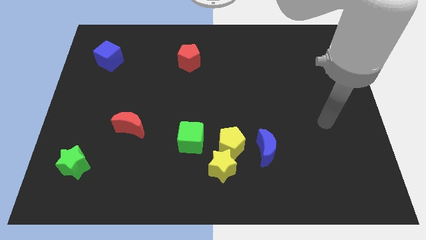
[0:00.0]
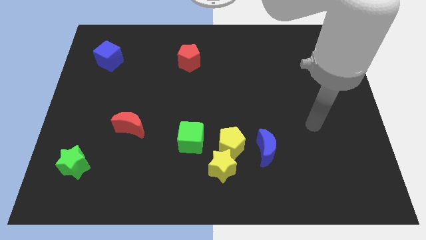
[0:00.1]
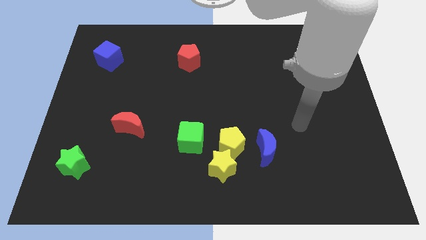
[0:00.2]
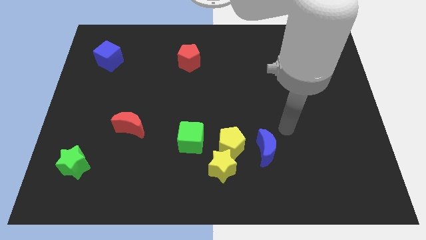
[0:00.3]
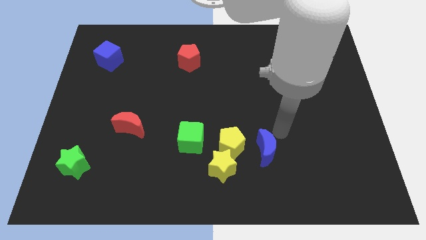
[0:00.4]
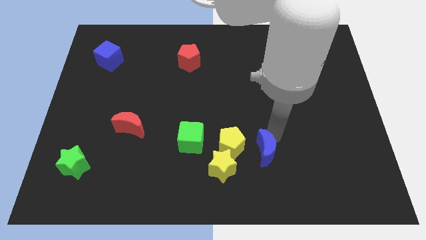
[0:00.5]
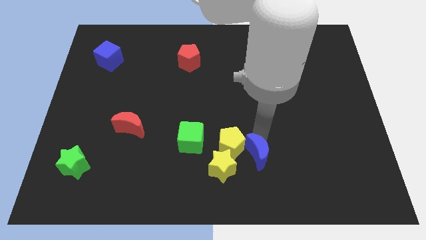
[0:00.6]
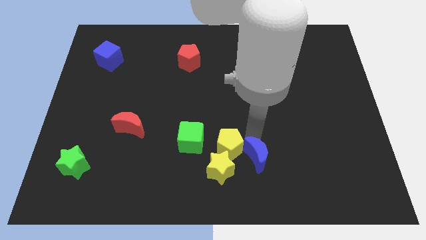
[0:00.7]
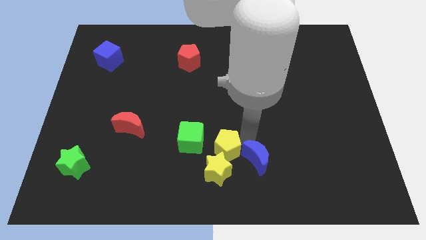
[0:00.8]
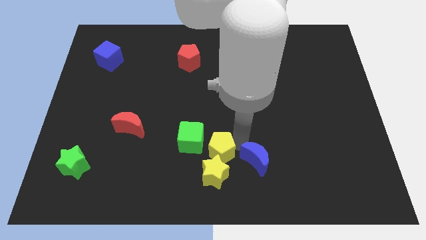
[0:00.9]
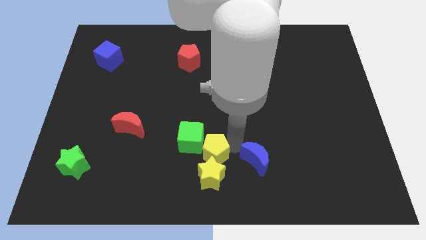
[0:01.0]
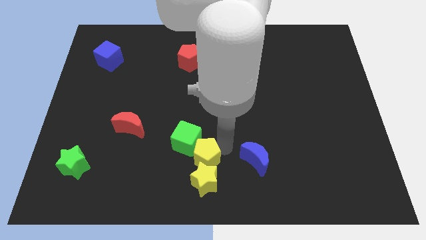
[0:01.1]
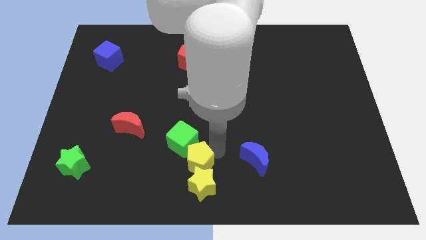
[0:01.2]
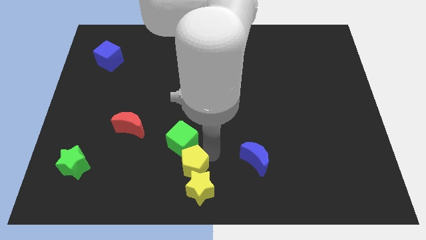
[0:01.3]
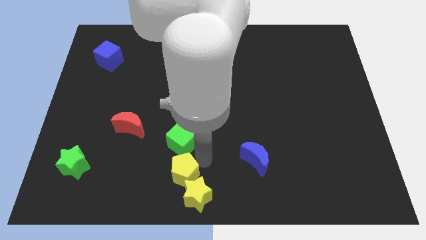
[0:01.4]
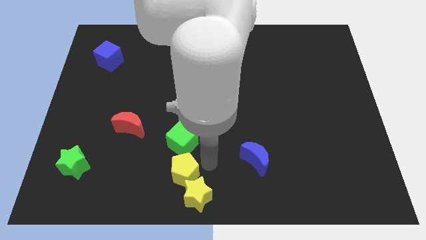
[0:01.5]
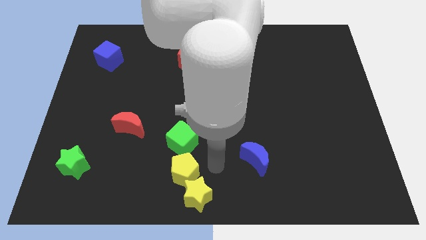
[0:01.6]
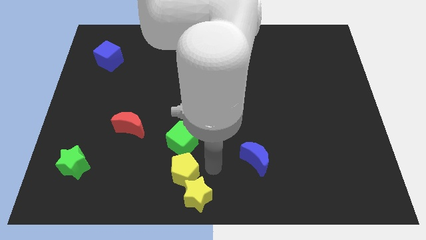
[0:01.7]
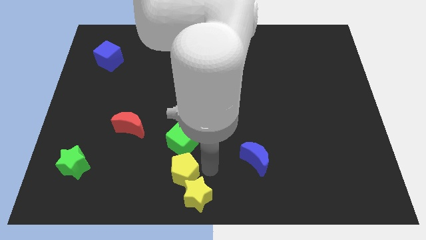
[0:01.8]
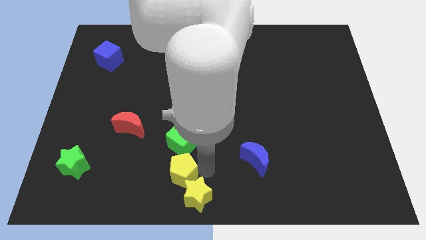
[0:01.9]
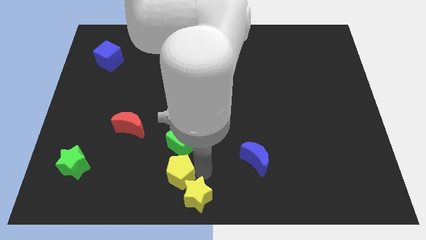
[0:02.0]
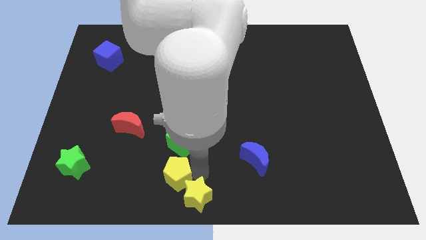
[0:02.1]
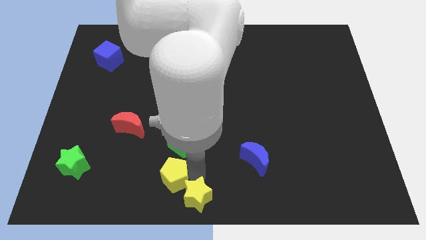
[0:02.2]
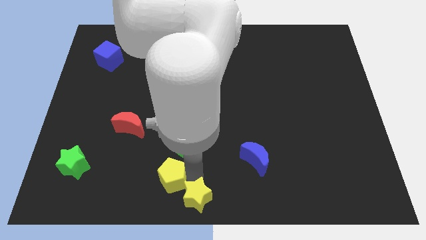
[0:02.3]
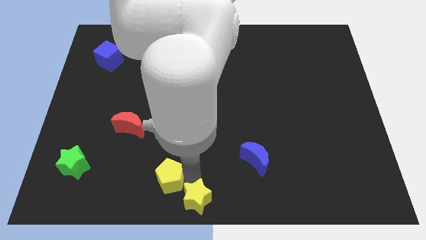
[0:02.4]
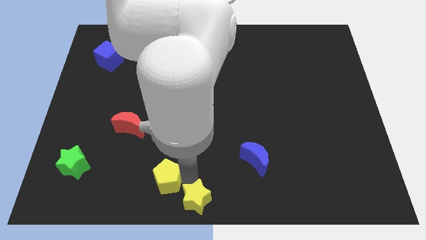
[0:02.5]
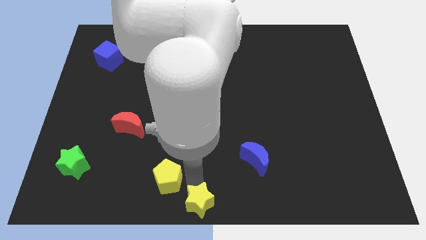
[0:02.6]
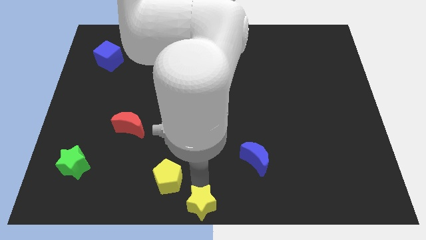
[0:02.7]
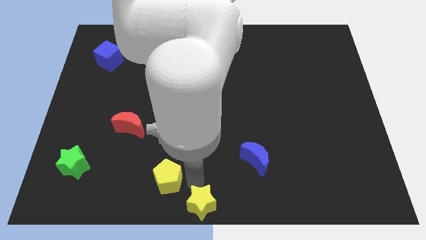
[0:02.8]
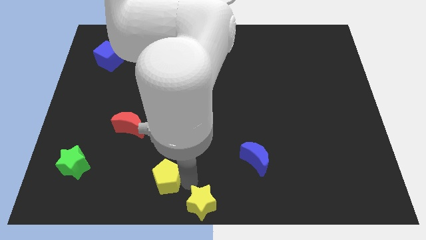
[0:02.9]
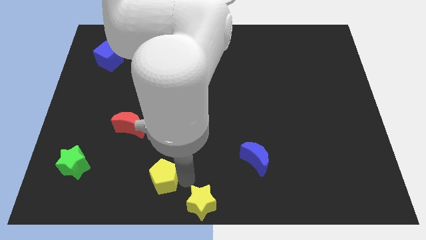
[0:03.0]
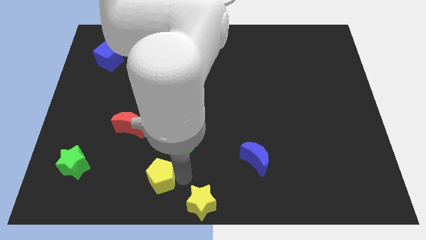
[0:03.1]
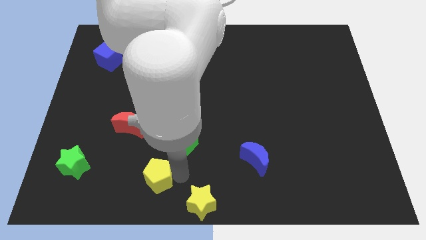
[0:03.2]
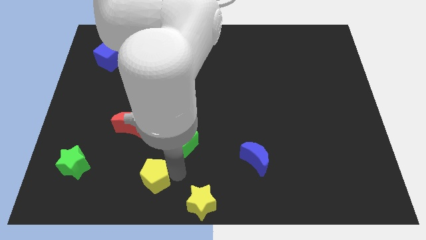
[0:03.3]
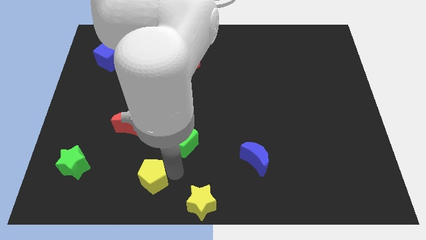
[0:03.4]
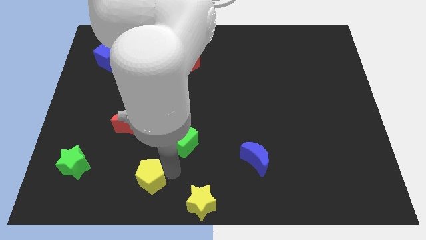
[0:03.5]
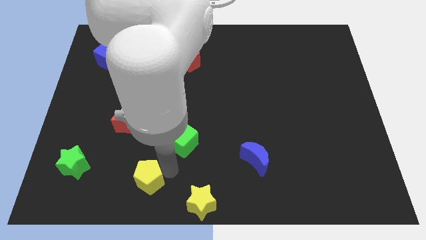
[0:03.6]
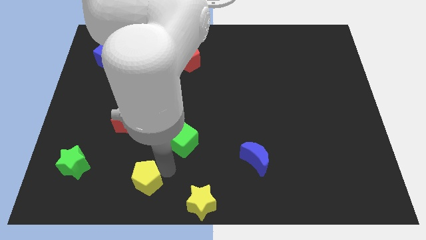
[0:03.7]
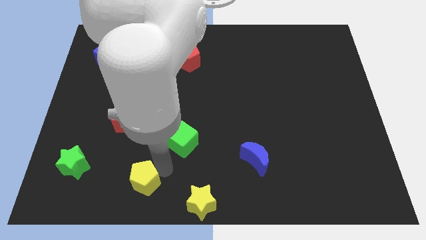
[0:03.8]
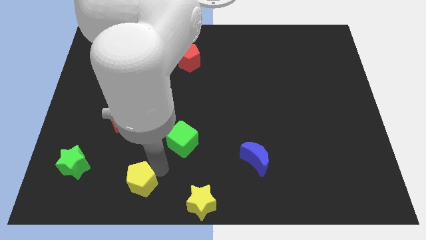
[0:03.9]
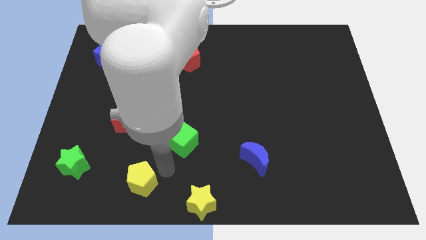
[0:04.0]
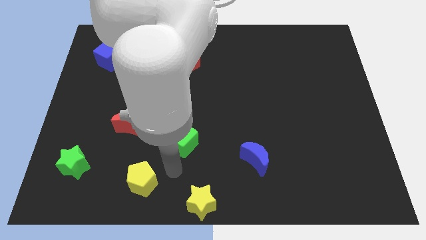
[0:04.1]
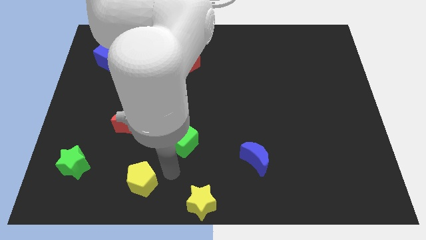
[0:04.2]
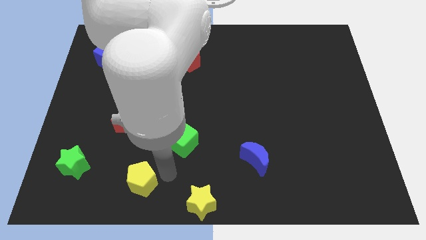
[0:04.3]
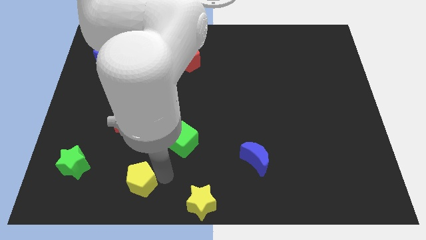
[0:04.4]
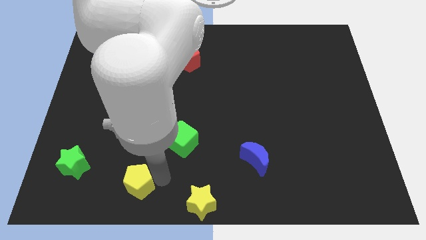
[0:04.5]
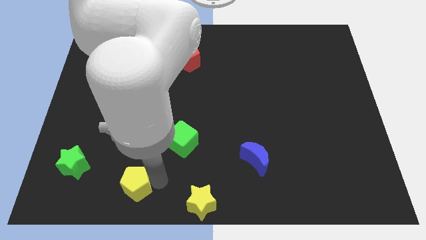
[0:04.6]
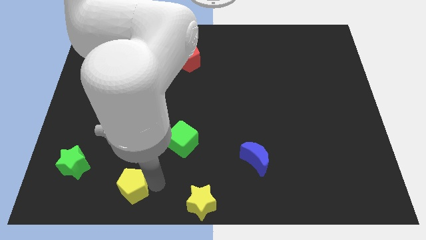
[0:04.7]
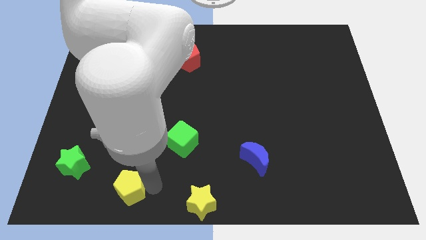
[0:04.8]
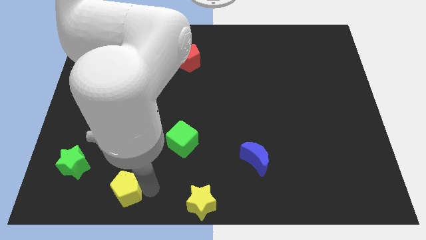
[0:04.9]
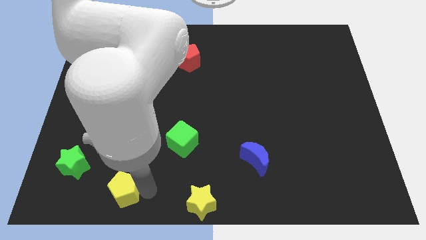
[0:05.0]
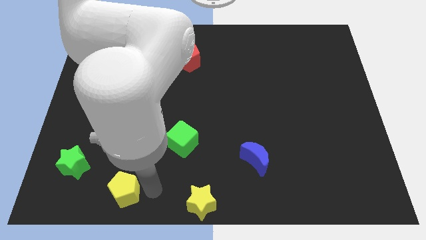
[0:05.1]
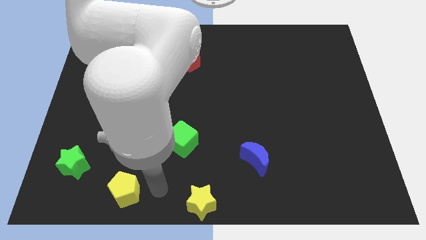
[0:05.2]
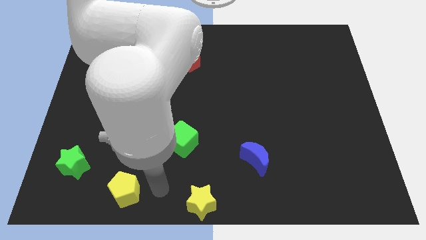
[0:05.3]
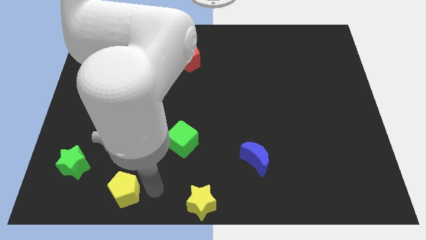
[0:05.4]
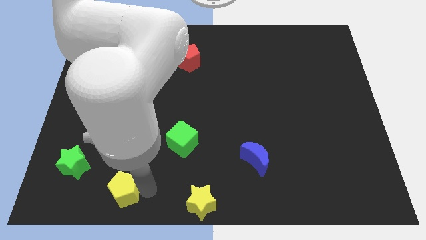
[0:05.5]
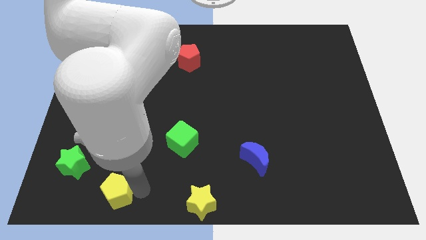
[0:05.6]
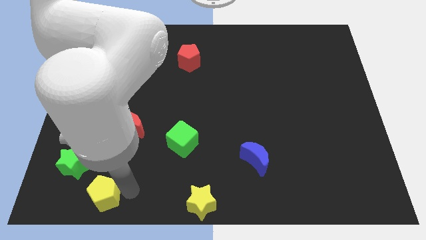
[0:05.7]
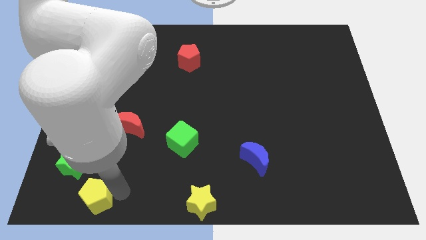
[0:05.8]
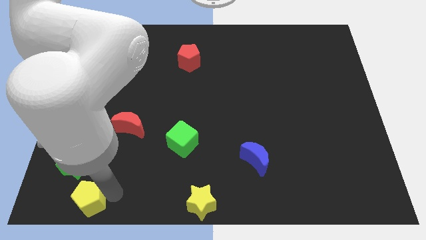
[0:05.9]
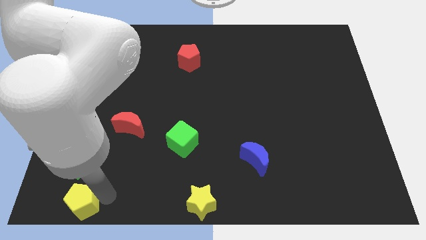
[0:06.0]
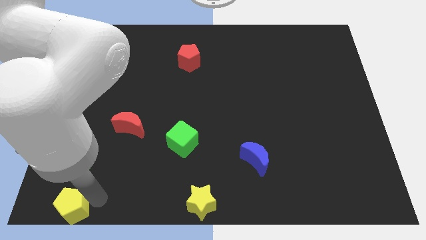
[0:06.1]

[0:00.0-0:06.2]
push the yellow pentagon to the bottom left

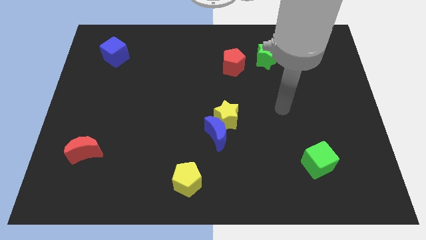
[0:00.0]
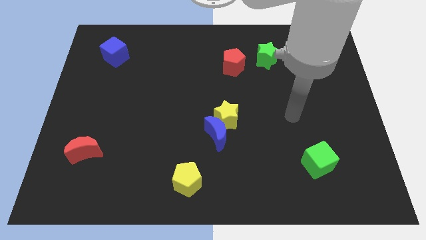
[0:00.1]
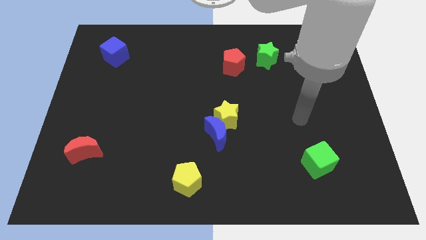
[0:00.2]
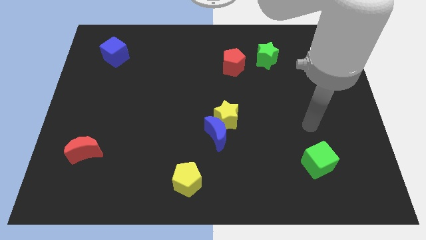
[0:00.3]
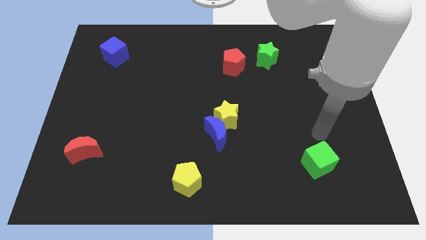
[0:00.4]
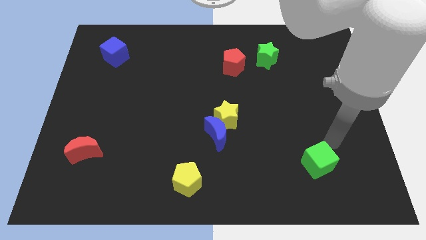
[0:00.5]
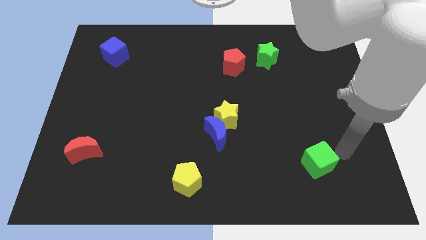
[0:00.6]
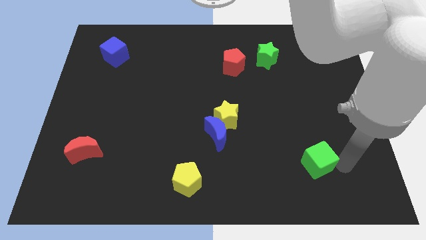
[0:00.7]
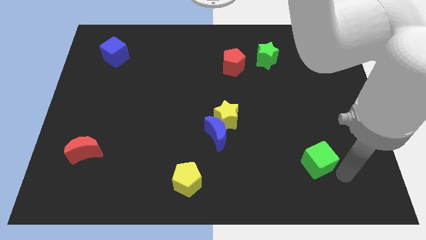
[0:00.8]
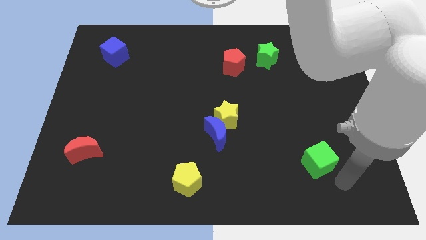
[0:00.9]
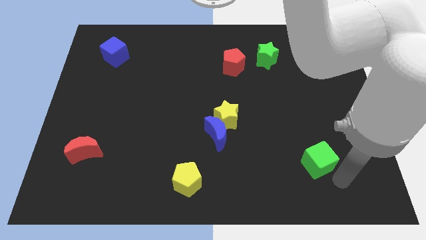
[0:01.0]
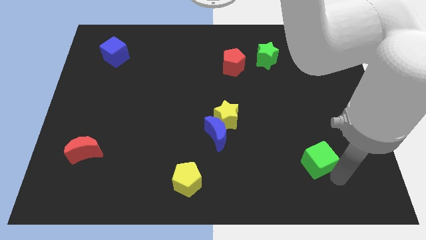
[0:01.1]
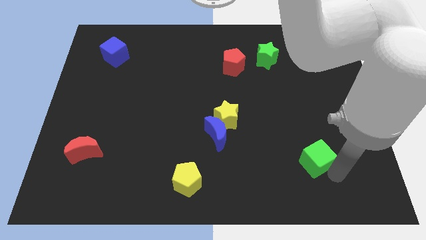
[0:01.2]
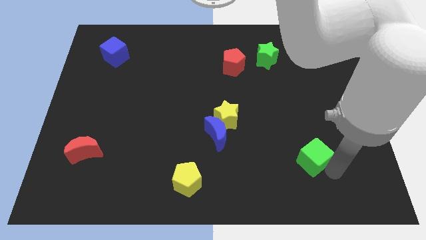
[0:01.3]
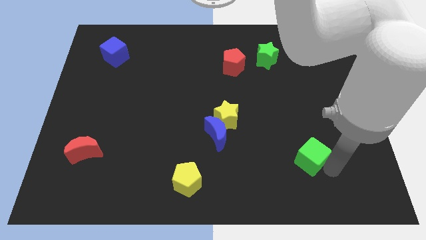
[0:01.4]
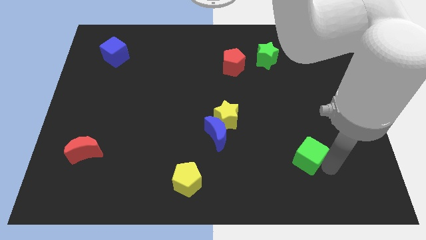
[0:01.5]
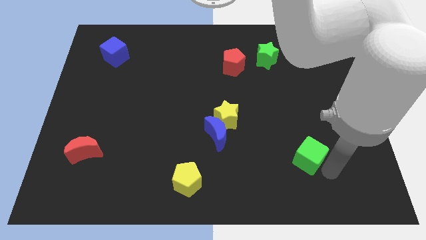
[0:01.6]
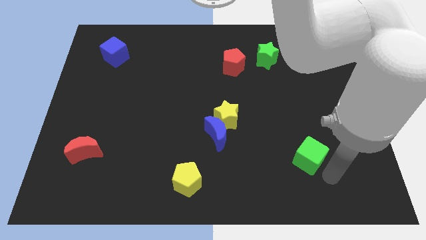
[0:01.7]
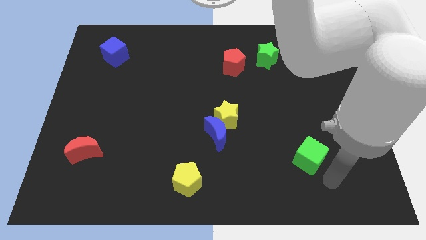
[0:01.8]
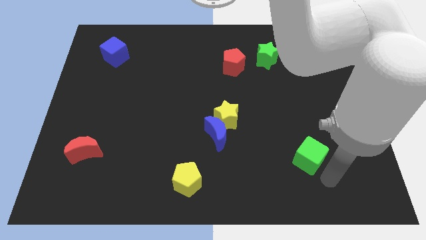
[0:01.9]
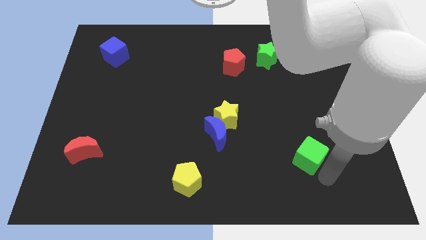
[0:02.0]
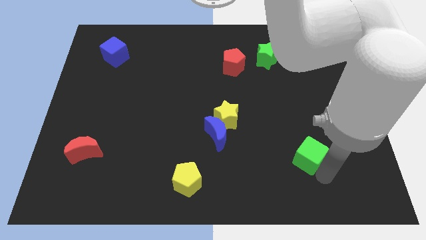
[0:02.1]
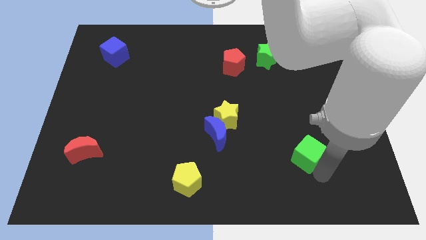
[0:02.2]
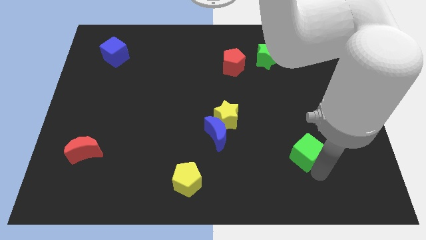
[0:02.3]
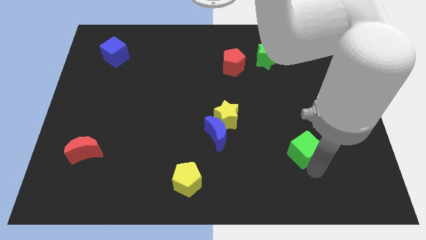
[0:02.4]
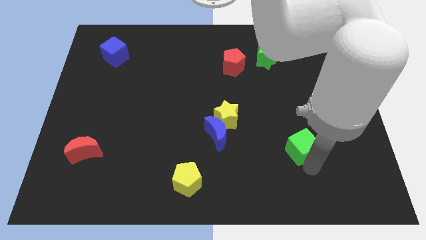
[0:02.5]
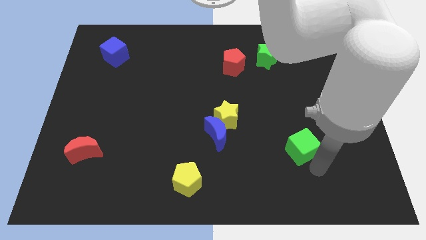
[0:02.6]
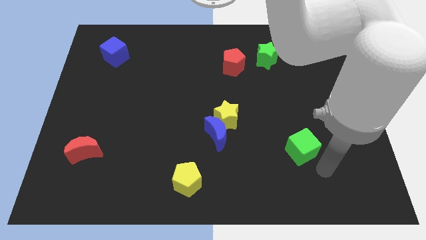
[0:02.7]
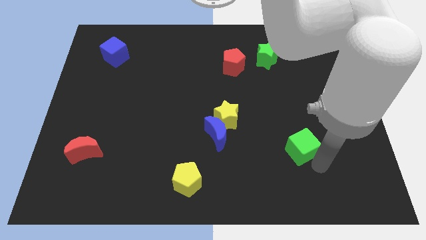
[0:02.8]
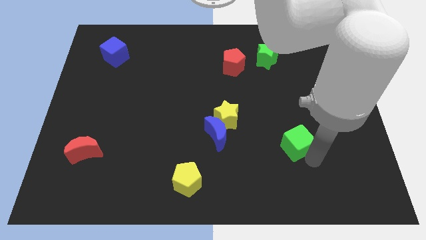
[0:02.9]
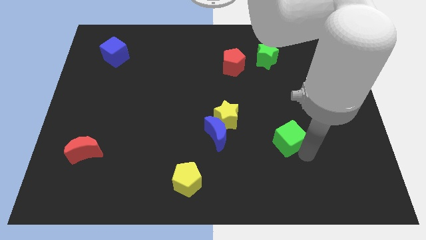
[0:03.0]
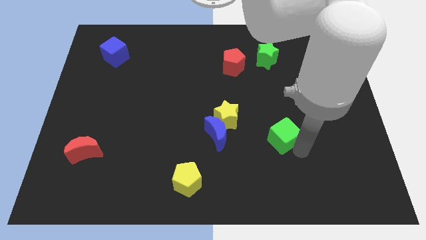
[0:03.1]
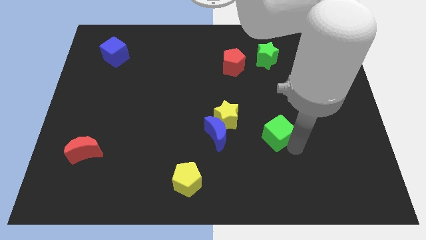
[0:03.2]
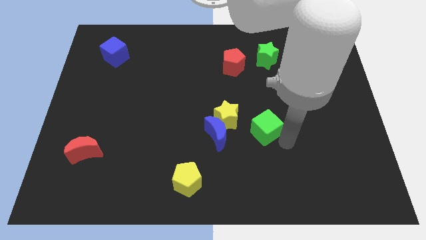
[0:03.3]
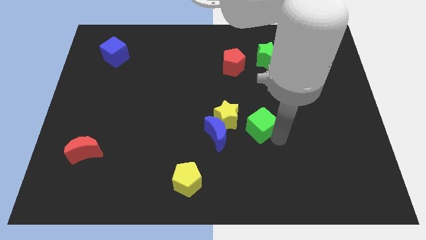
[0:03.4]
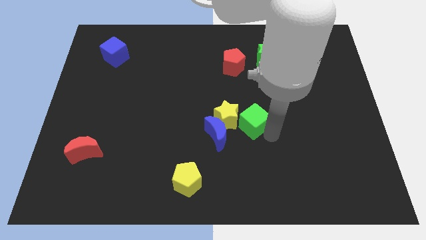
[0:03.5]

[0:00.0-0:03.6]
move the green cube to the center of the board
